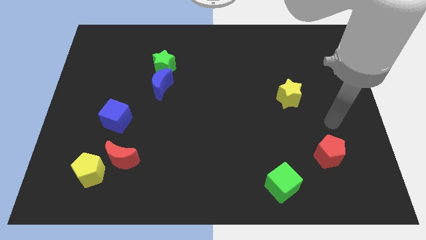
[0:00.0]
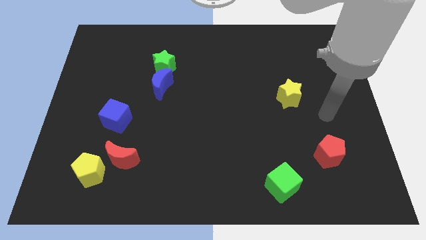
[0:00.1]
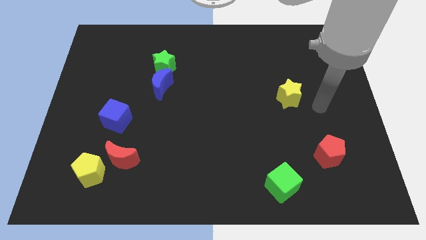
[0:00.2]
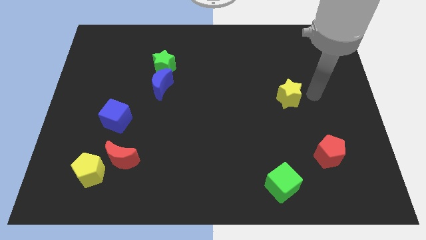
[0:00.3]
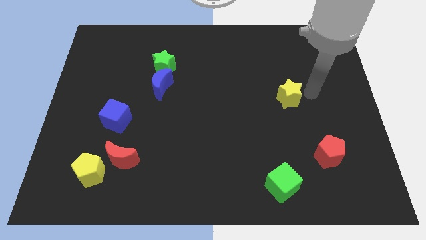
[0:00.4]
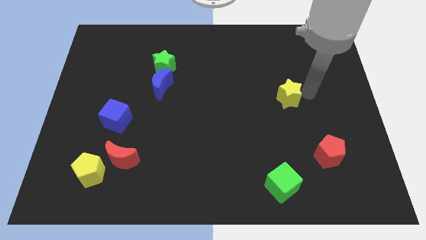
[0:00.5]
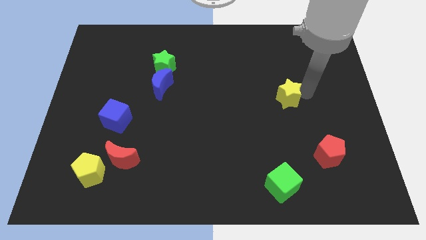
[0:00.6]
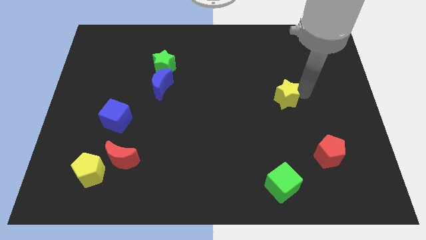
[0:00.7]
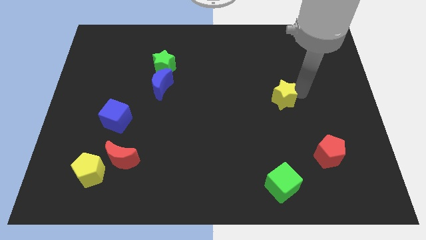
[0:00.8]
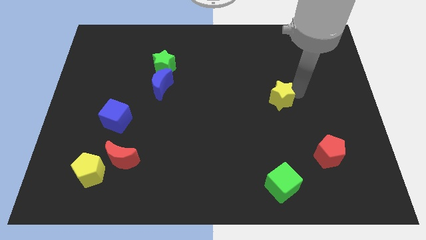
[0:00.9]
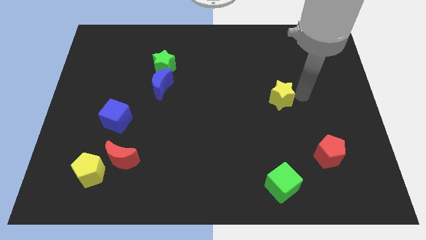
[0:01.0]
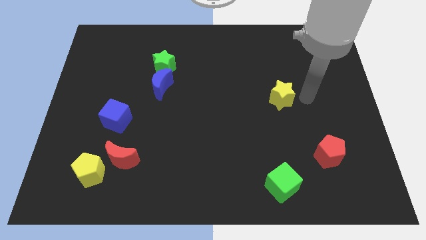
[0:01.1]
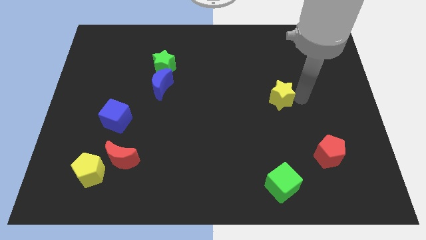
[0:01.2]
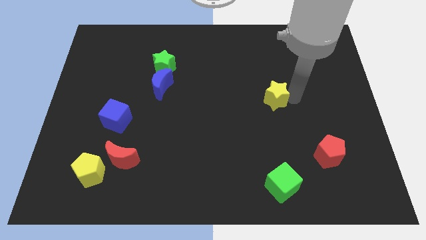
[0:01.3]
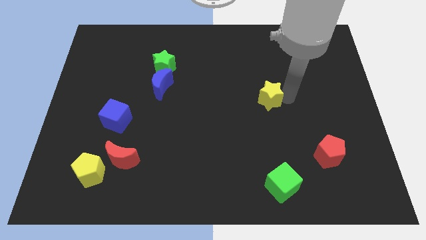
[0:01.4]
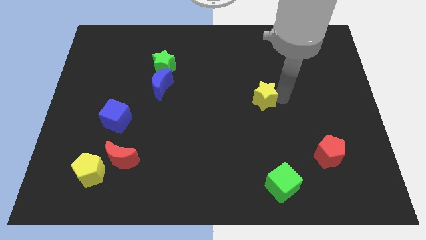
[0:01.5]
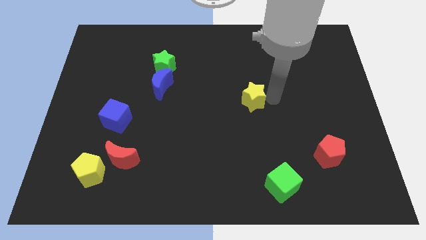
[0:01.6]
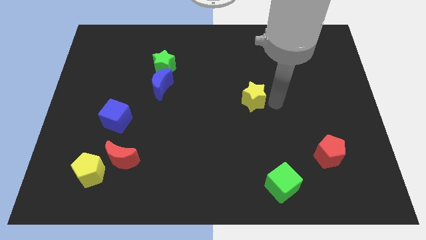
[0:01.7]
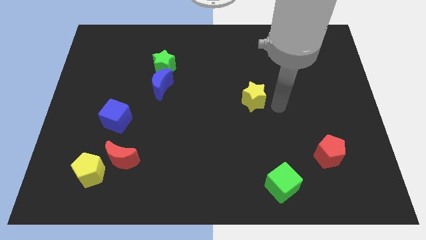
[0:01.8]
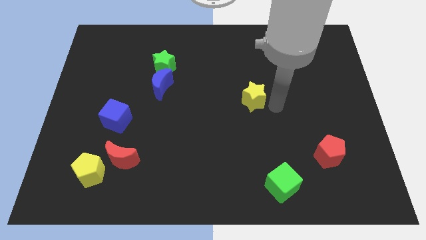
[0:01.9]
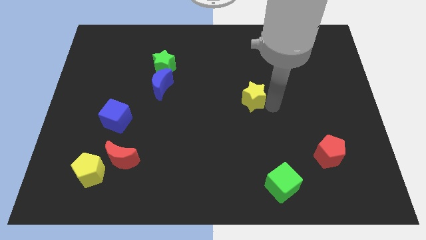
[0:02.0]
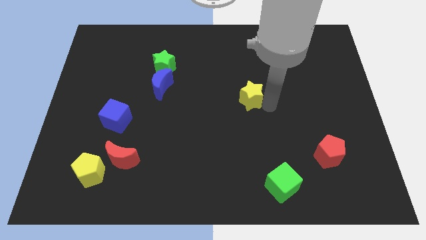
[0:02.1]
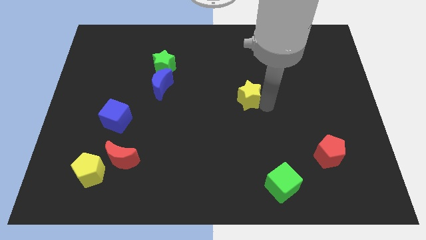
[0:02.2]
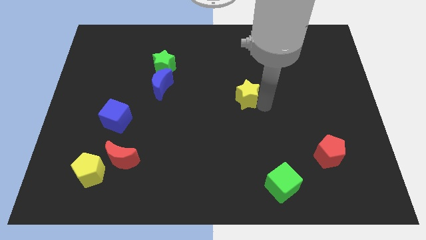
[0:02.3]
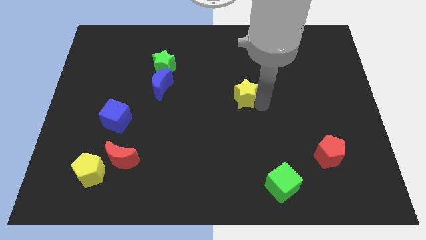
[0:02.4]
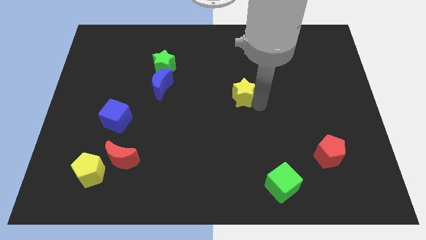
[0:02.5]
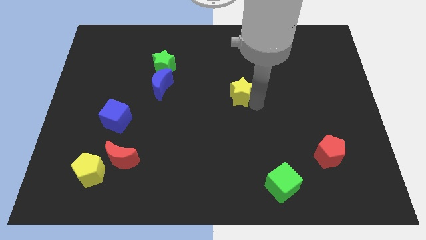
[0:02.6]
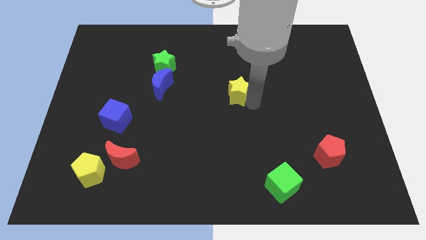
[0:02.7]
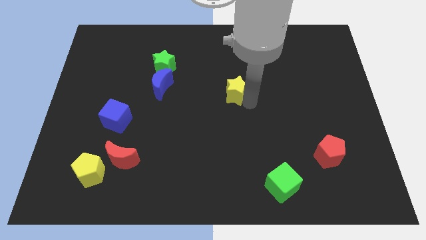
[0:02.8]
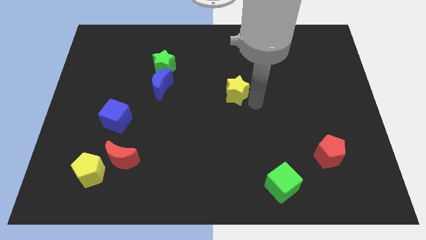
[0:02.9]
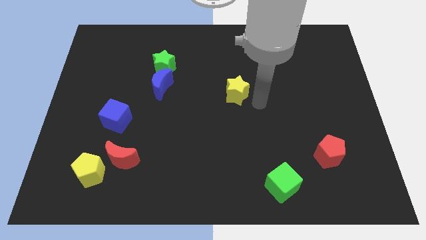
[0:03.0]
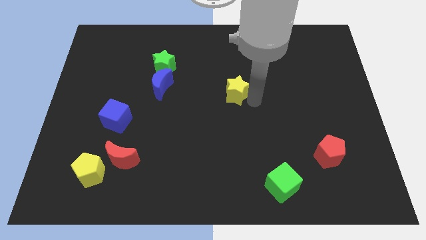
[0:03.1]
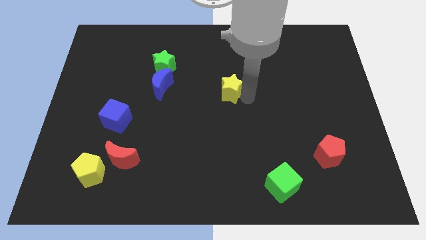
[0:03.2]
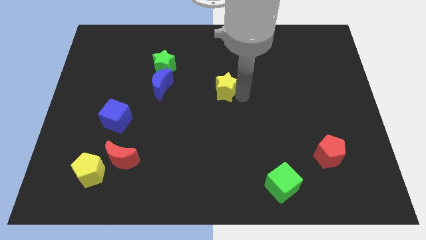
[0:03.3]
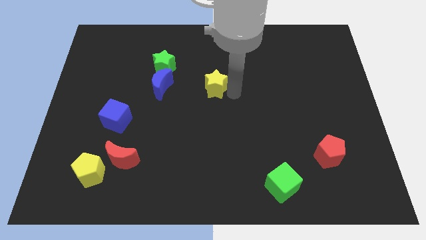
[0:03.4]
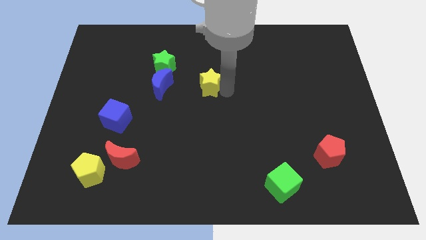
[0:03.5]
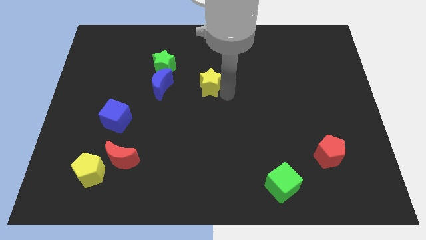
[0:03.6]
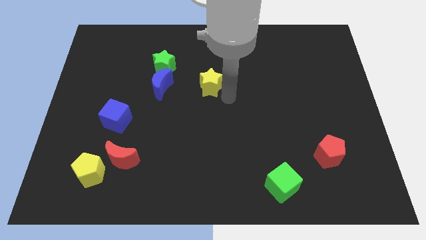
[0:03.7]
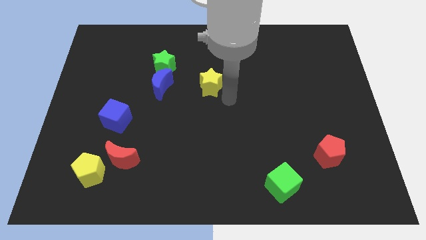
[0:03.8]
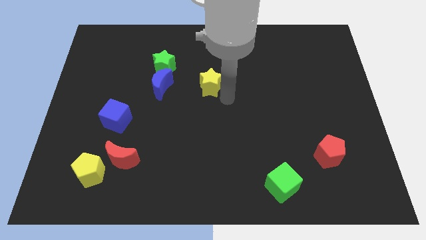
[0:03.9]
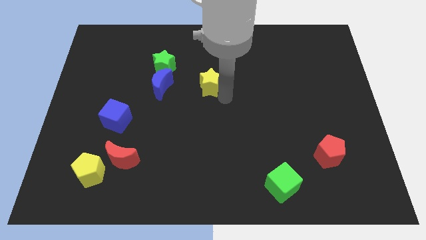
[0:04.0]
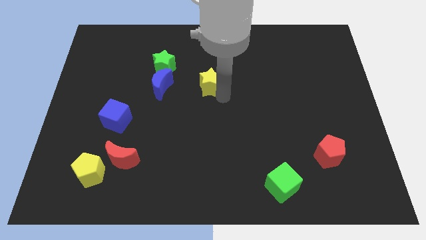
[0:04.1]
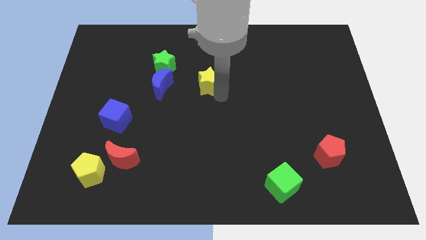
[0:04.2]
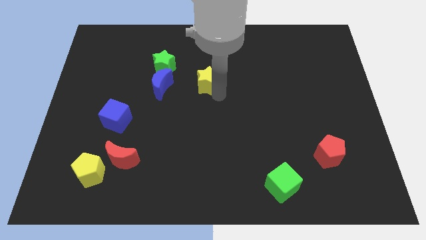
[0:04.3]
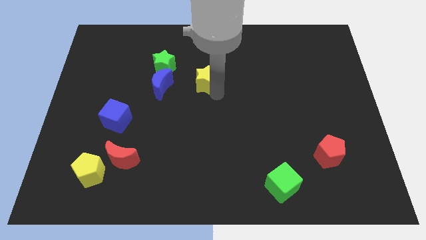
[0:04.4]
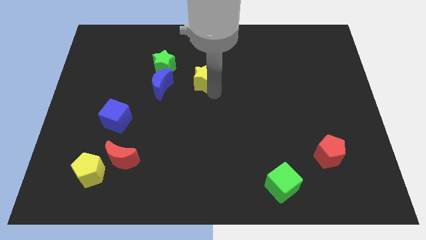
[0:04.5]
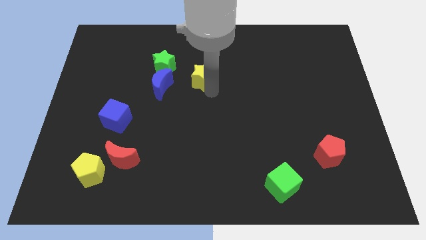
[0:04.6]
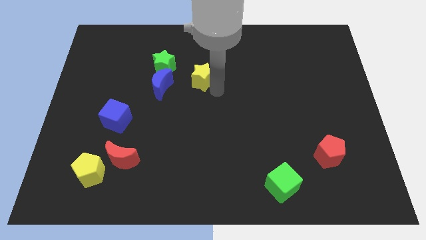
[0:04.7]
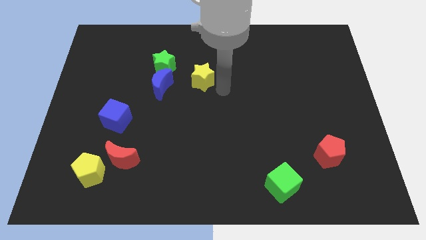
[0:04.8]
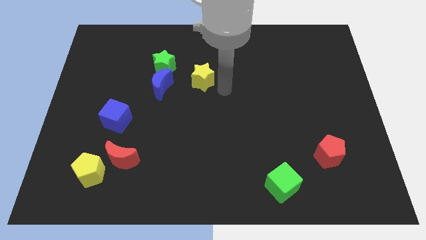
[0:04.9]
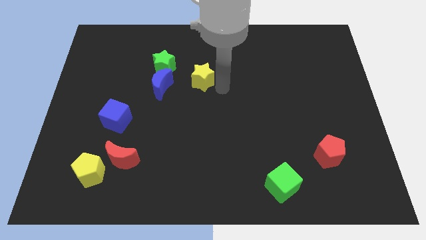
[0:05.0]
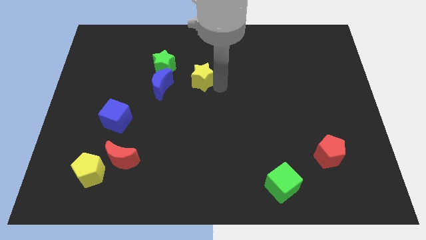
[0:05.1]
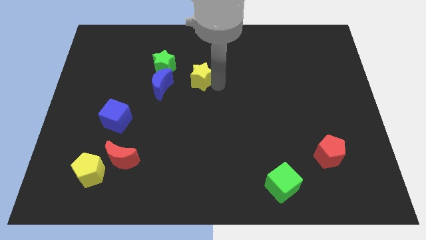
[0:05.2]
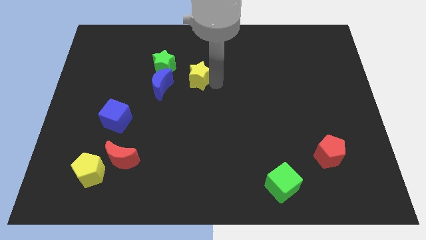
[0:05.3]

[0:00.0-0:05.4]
slide the yellow star to the top right of the blue moon

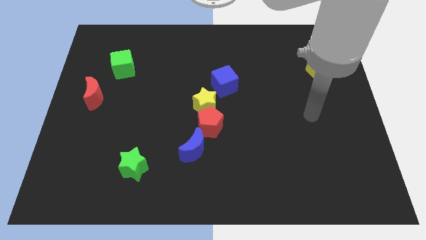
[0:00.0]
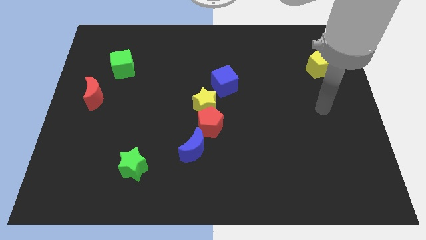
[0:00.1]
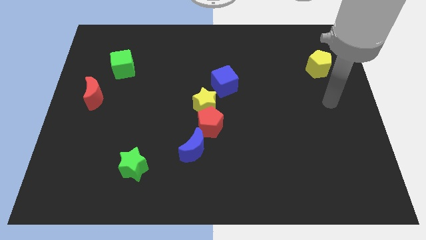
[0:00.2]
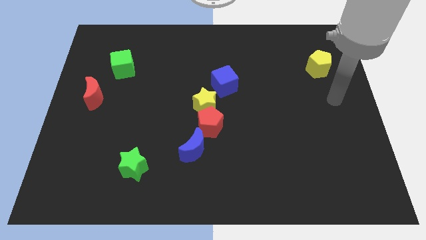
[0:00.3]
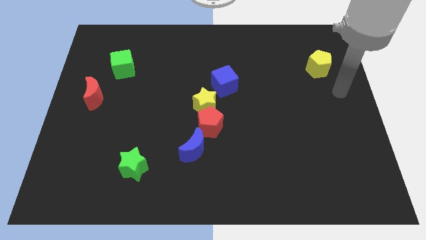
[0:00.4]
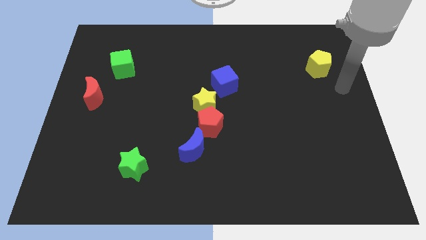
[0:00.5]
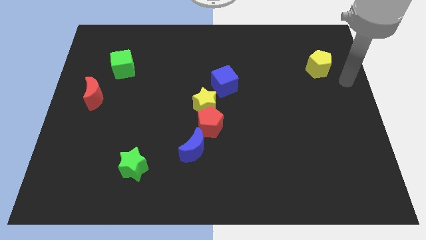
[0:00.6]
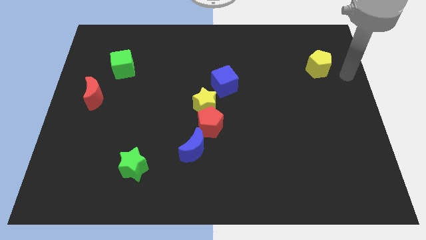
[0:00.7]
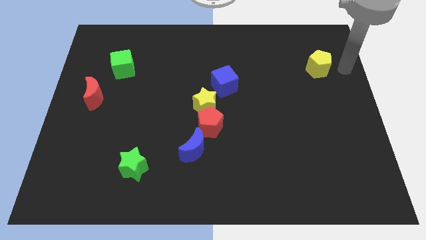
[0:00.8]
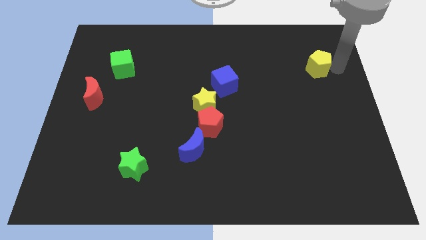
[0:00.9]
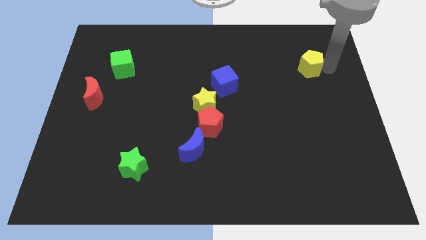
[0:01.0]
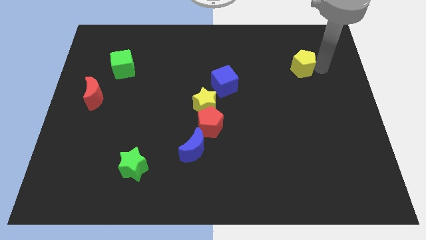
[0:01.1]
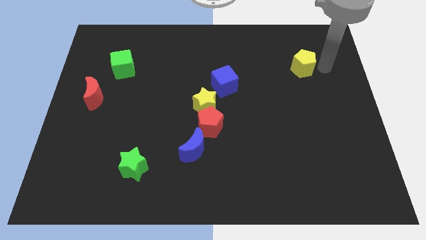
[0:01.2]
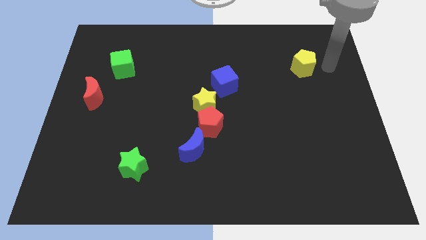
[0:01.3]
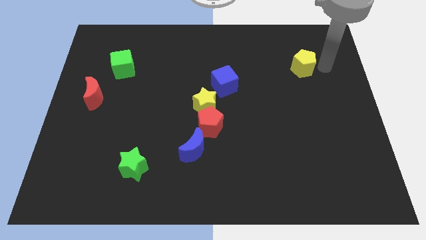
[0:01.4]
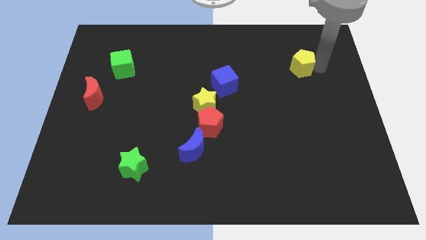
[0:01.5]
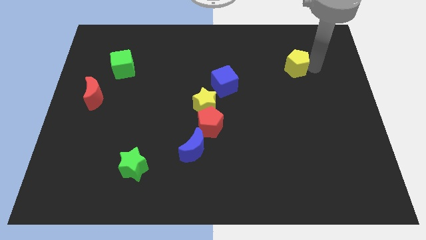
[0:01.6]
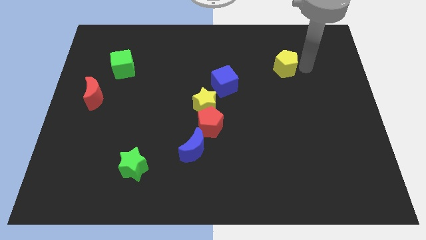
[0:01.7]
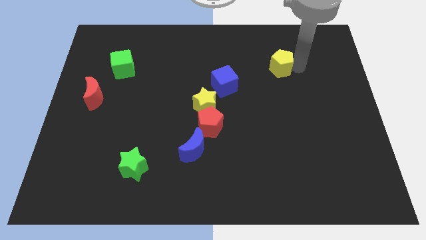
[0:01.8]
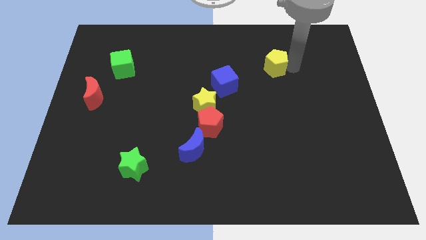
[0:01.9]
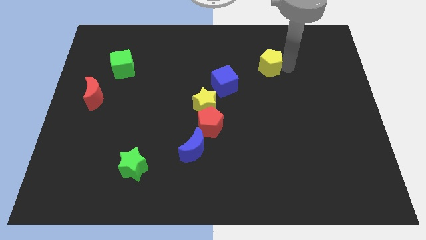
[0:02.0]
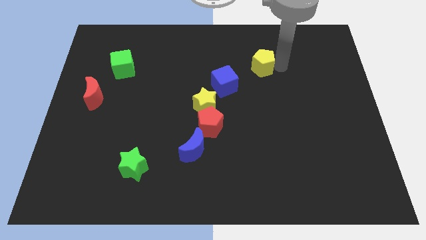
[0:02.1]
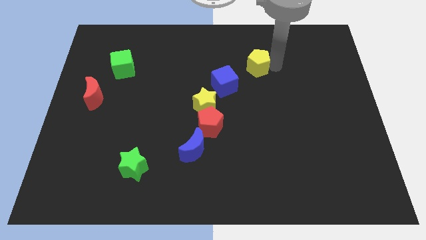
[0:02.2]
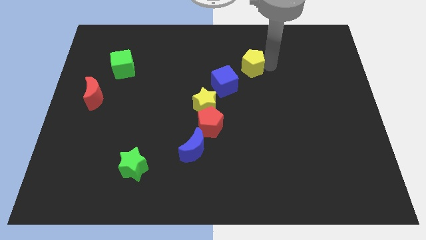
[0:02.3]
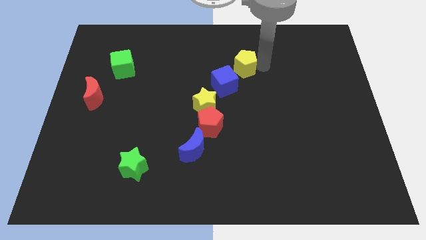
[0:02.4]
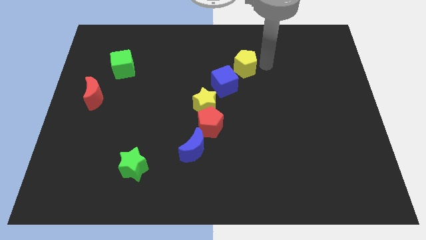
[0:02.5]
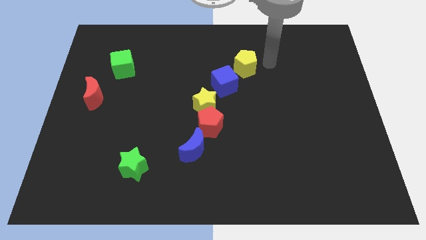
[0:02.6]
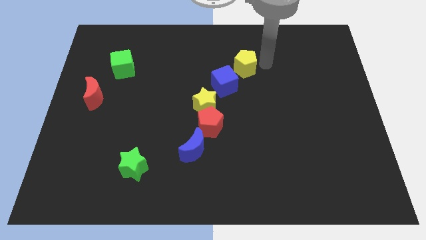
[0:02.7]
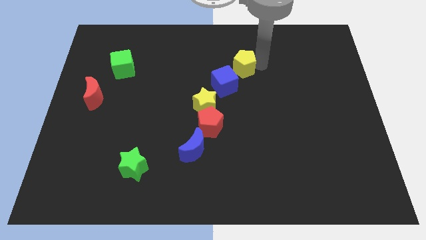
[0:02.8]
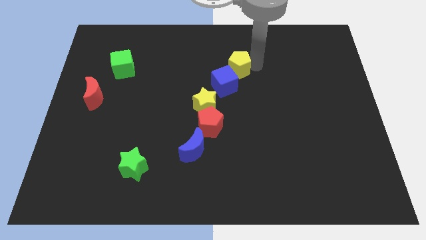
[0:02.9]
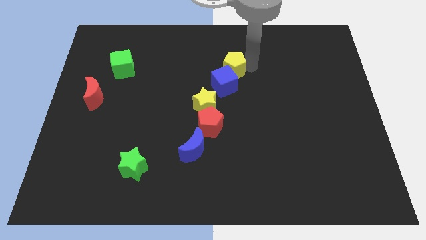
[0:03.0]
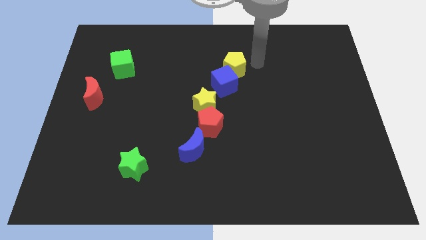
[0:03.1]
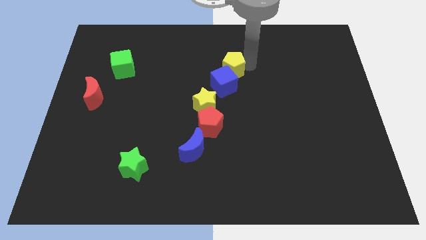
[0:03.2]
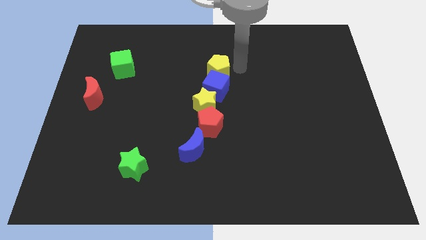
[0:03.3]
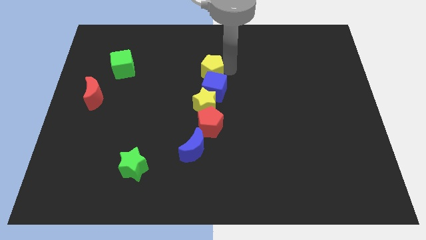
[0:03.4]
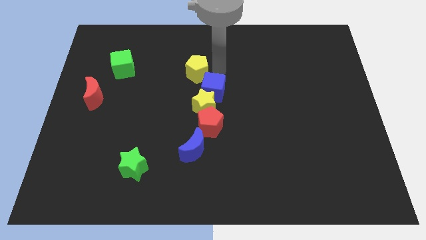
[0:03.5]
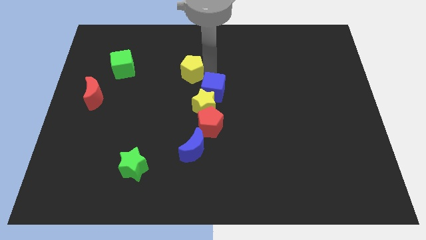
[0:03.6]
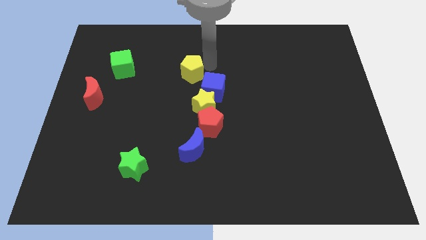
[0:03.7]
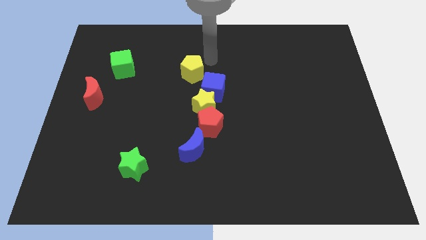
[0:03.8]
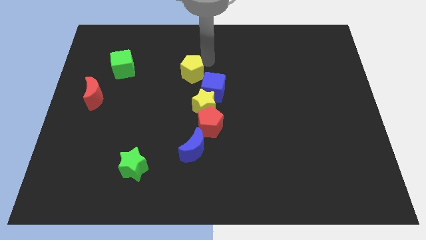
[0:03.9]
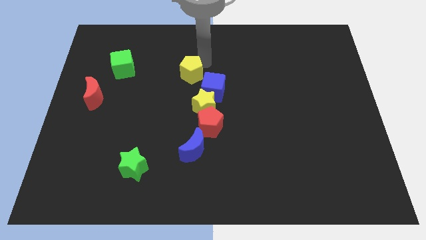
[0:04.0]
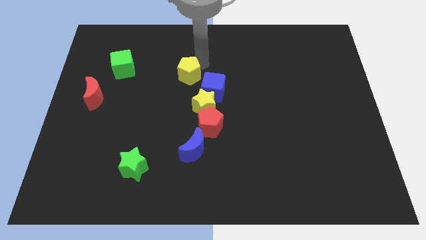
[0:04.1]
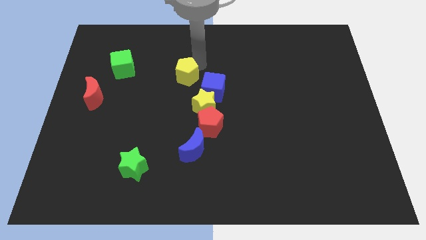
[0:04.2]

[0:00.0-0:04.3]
put the yellow pentagon to the left of the blue cube
